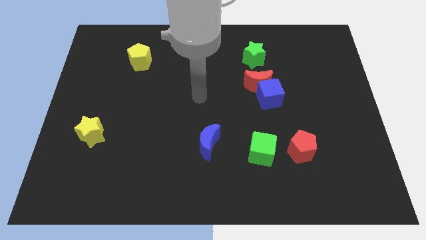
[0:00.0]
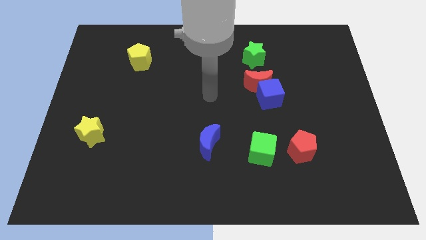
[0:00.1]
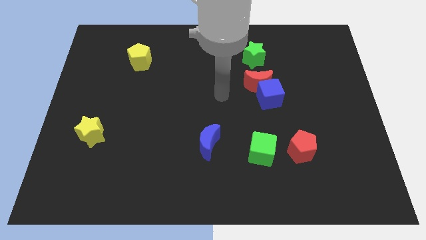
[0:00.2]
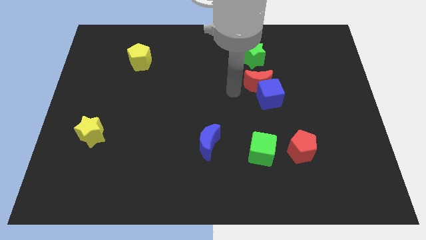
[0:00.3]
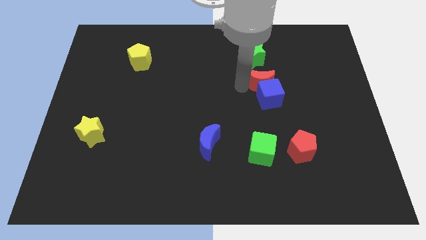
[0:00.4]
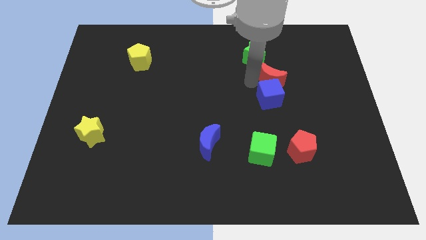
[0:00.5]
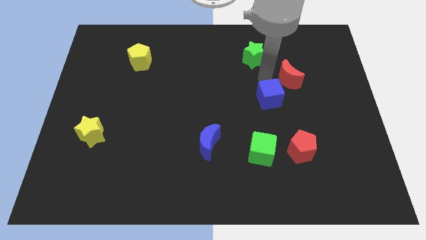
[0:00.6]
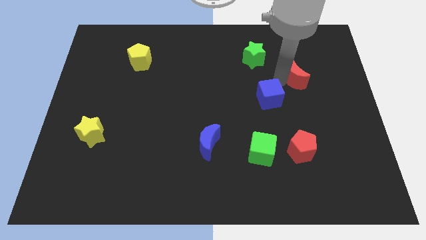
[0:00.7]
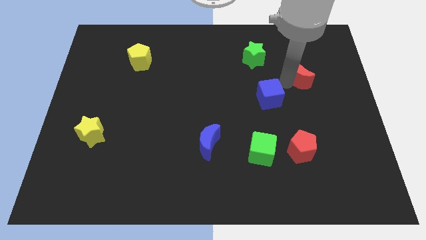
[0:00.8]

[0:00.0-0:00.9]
move the blue cube away from the red moon

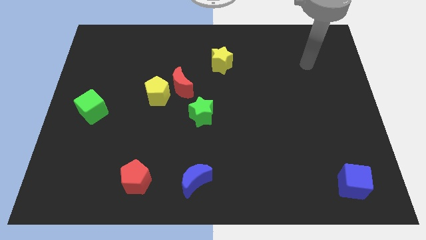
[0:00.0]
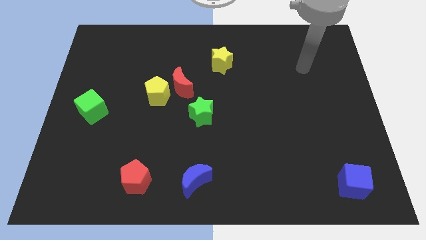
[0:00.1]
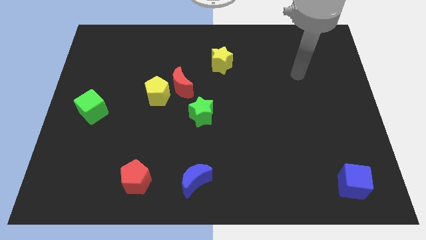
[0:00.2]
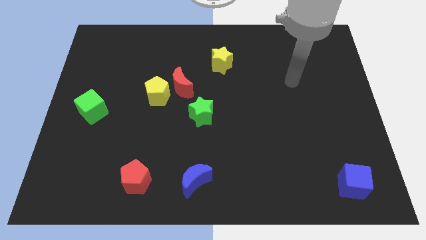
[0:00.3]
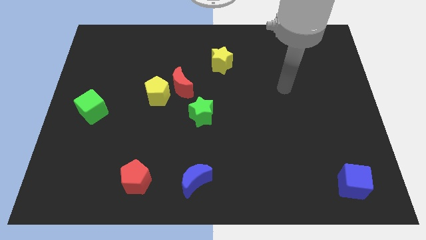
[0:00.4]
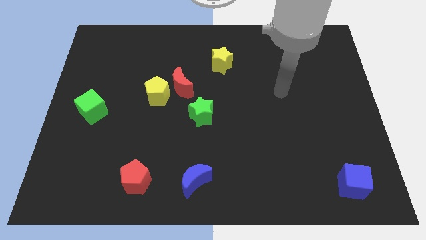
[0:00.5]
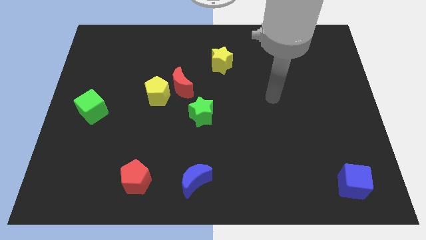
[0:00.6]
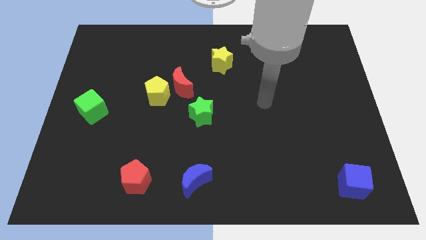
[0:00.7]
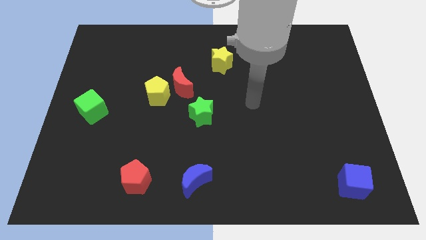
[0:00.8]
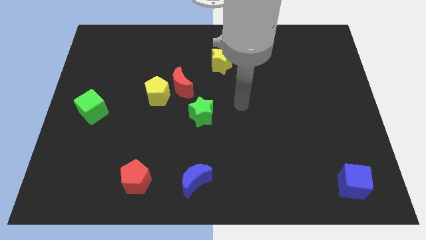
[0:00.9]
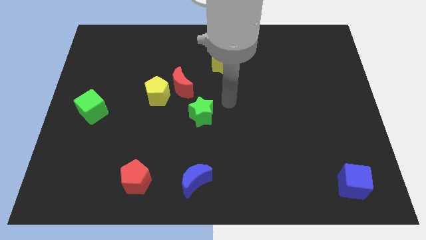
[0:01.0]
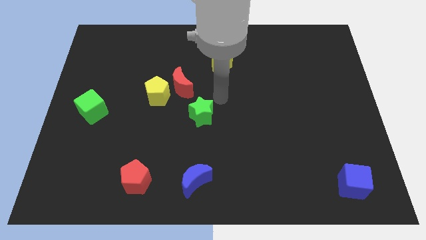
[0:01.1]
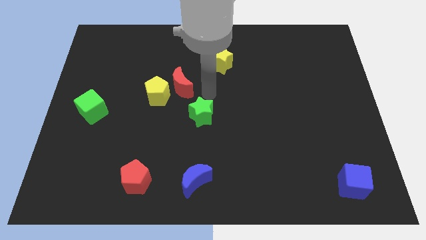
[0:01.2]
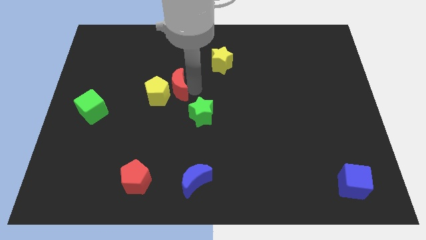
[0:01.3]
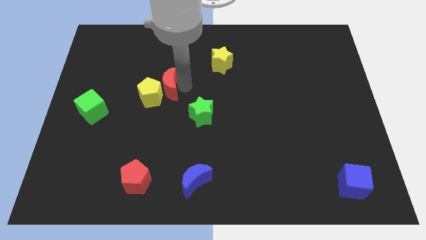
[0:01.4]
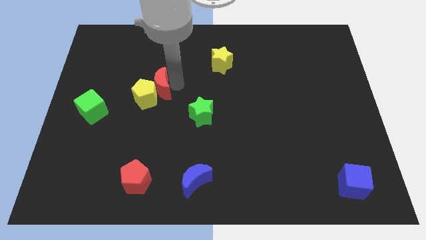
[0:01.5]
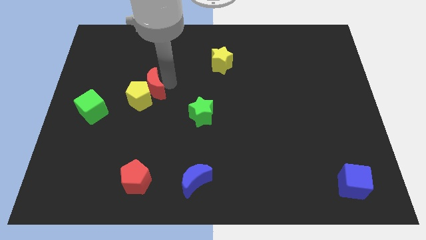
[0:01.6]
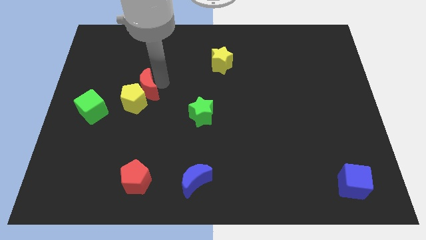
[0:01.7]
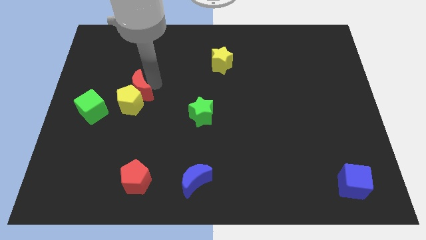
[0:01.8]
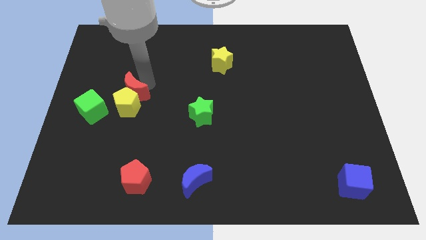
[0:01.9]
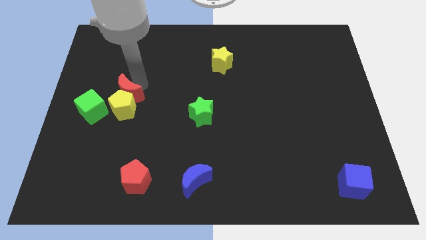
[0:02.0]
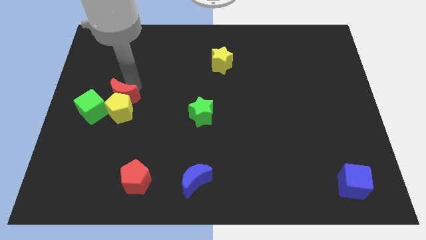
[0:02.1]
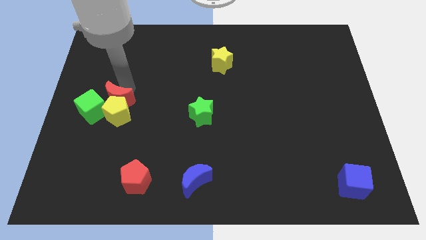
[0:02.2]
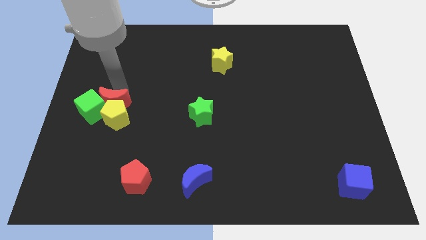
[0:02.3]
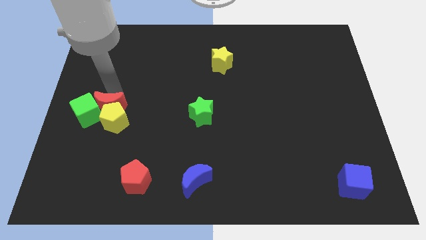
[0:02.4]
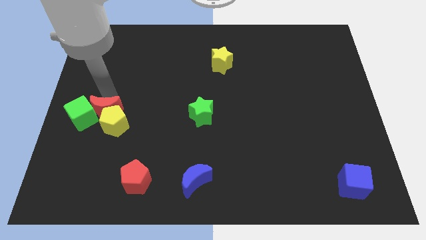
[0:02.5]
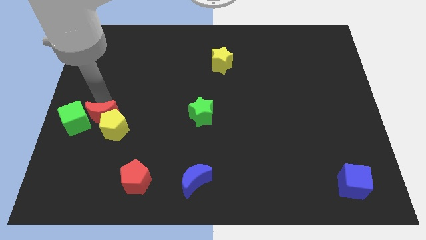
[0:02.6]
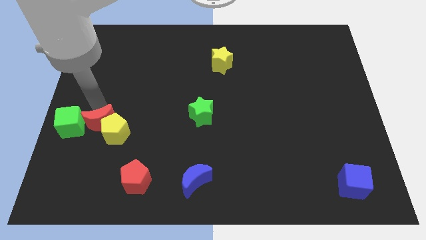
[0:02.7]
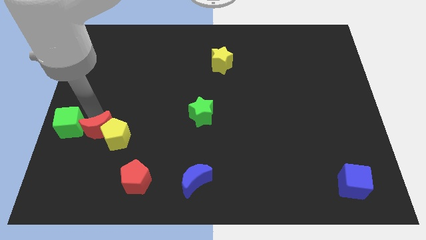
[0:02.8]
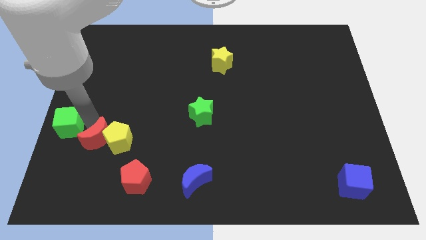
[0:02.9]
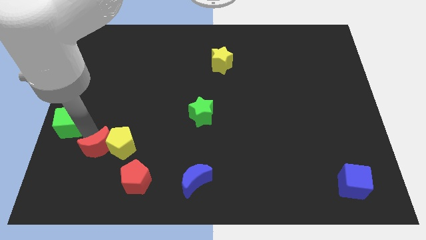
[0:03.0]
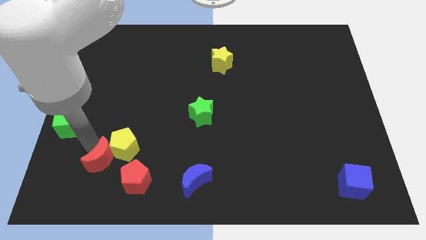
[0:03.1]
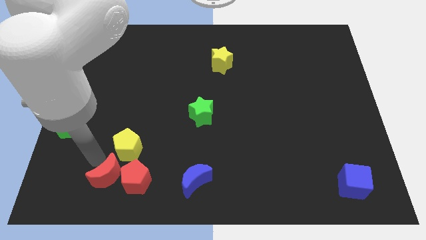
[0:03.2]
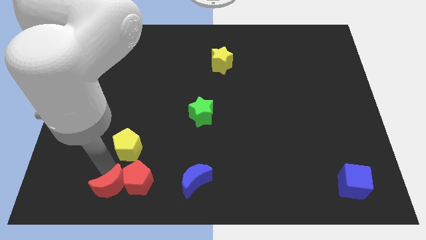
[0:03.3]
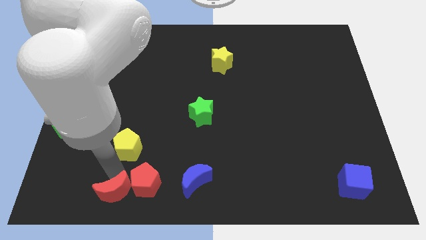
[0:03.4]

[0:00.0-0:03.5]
move the yellow pentagon away from the red moon

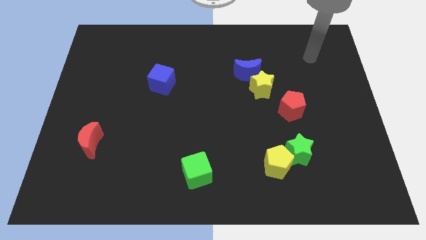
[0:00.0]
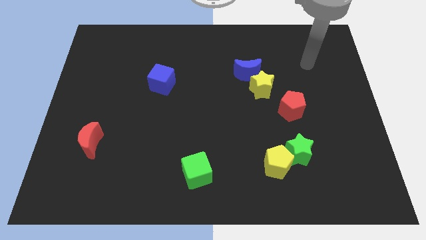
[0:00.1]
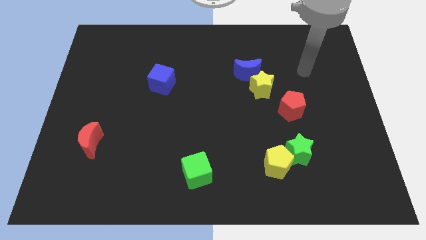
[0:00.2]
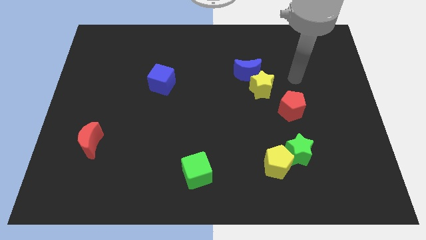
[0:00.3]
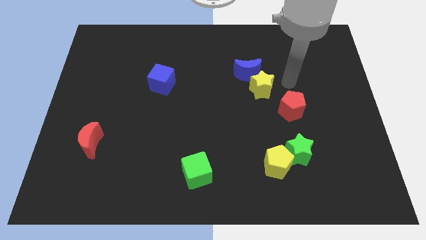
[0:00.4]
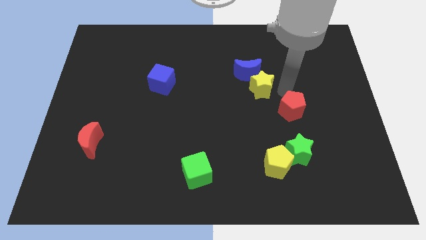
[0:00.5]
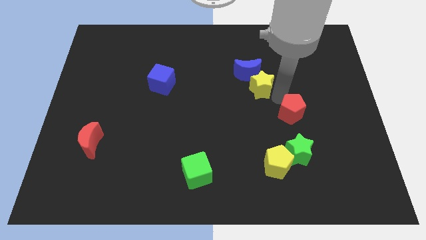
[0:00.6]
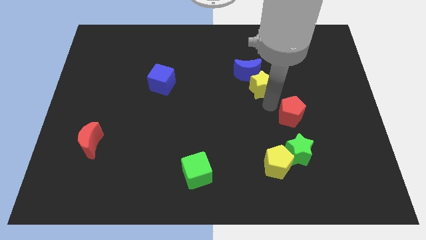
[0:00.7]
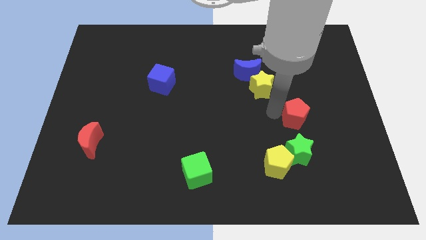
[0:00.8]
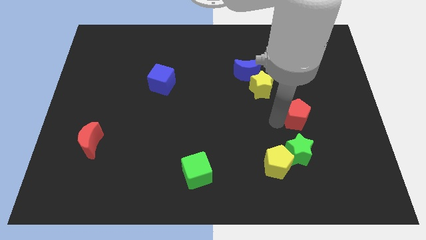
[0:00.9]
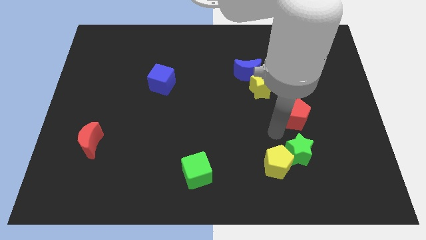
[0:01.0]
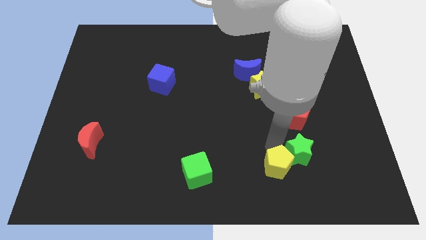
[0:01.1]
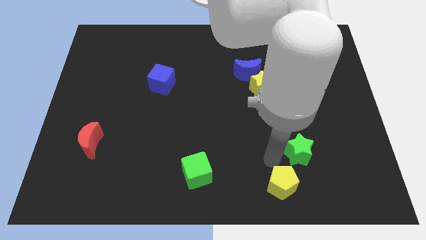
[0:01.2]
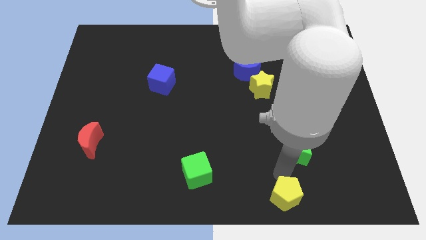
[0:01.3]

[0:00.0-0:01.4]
separate the green star from the yellow pentagon

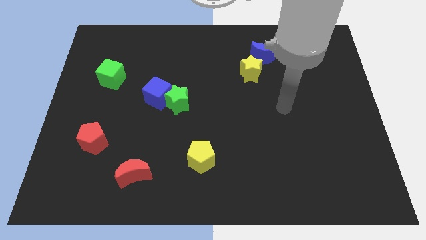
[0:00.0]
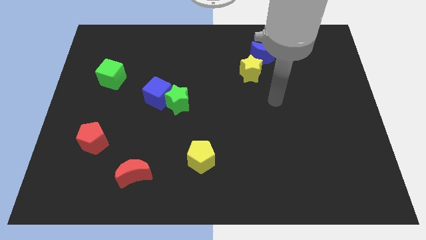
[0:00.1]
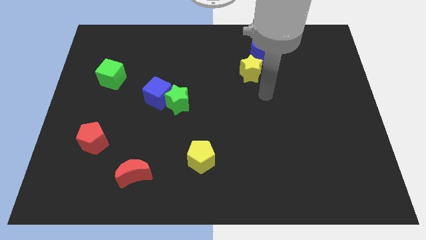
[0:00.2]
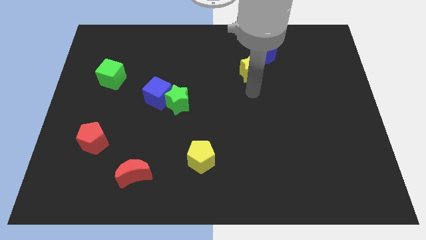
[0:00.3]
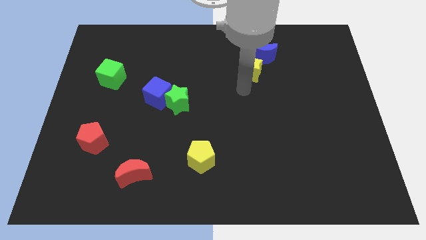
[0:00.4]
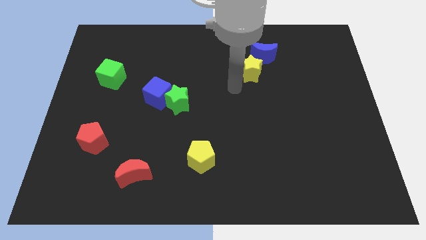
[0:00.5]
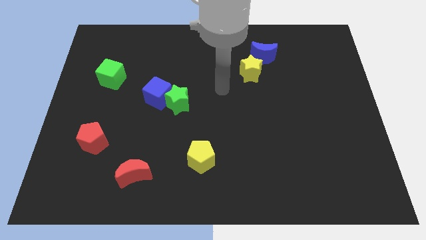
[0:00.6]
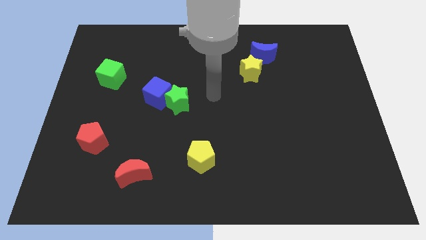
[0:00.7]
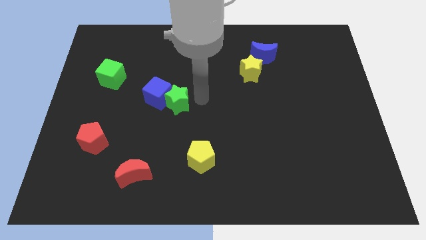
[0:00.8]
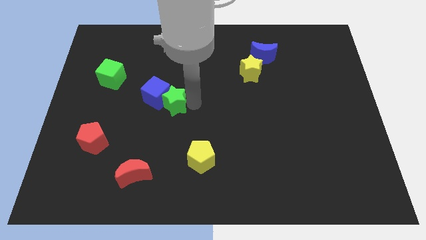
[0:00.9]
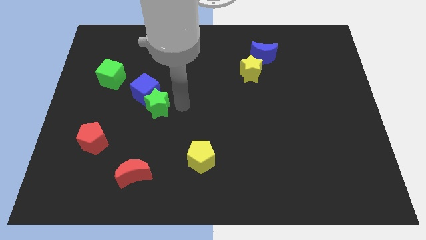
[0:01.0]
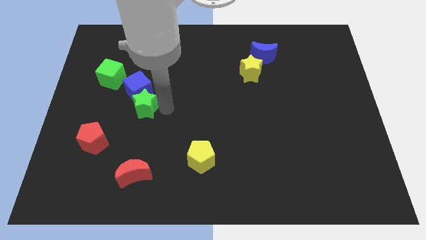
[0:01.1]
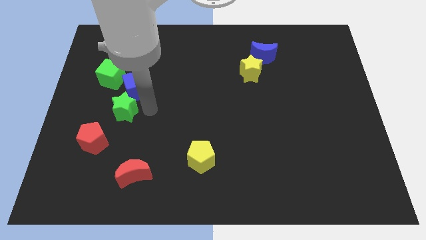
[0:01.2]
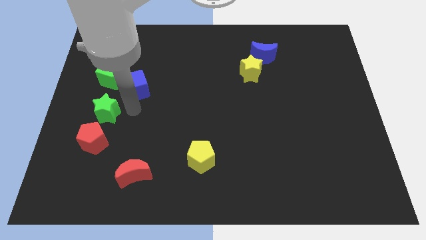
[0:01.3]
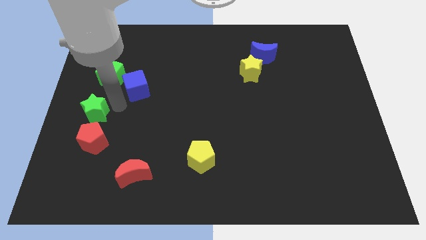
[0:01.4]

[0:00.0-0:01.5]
separate the blue cube from the green star

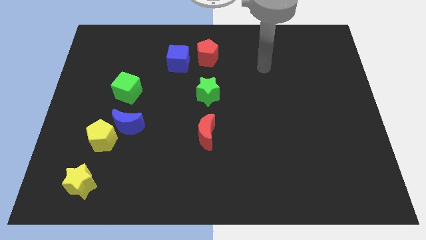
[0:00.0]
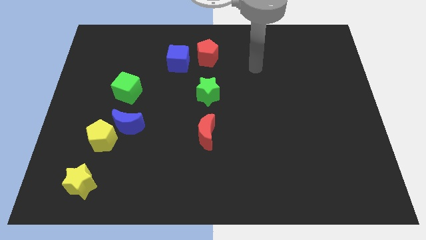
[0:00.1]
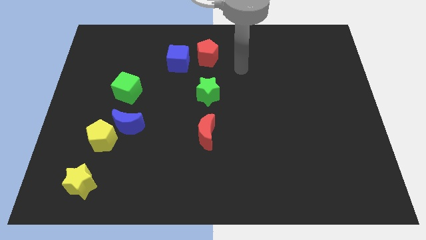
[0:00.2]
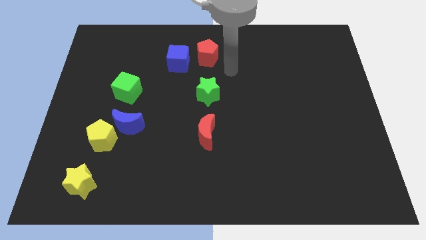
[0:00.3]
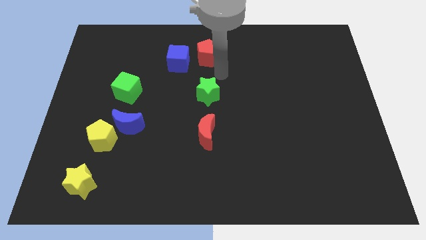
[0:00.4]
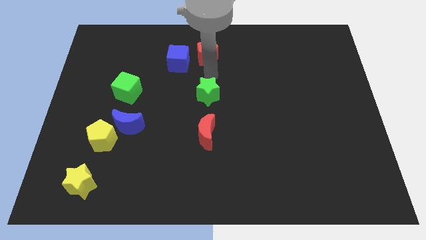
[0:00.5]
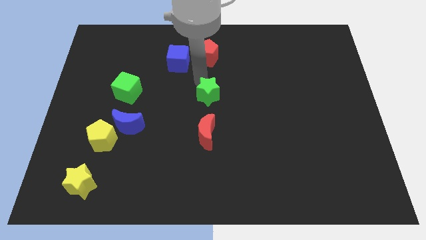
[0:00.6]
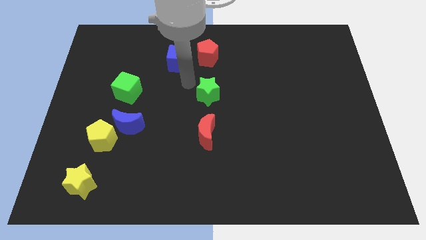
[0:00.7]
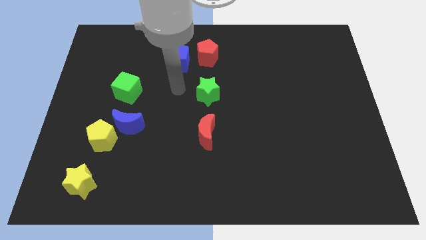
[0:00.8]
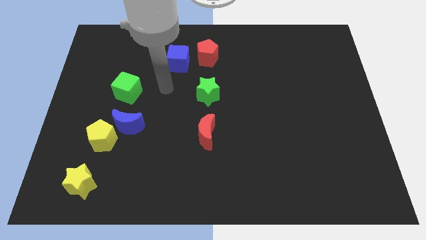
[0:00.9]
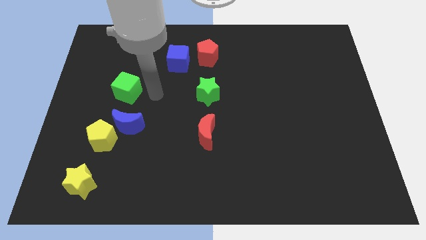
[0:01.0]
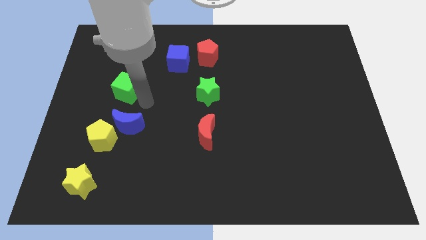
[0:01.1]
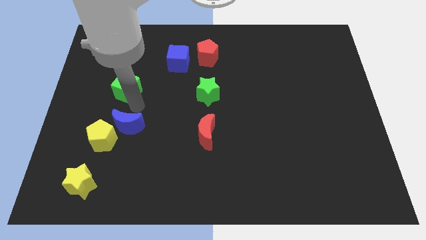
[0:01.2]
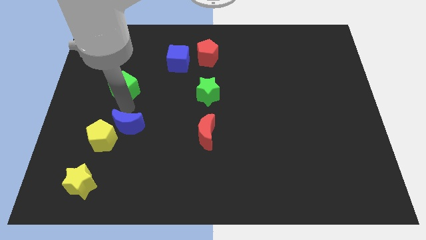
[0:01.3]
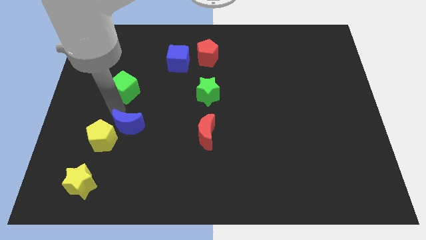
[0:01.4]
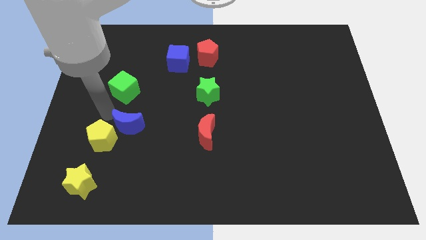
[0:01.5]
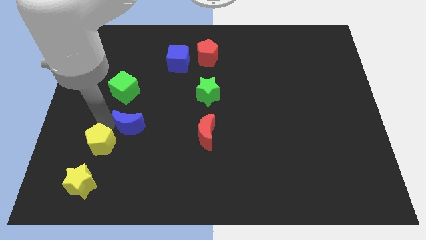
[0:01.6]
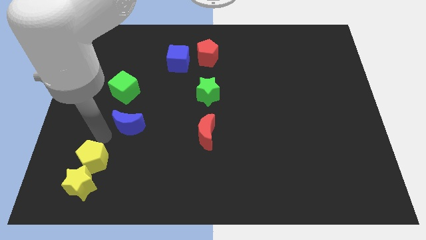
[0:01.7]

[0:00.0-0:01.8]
move the blue moon away from the yellow pentagon

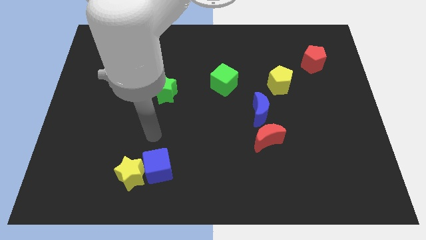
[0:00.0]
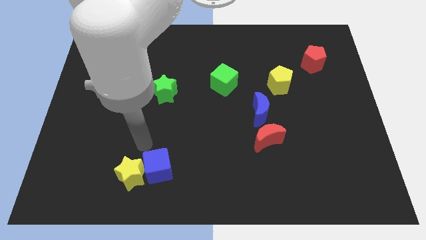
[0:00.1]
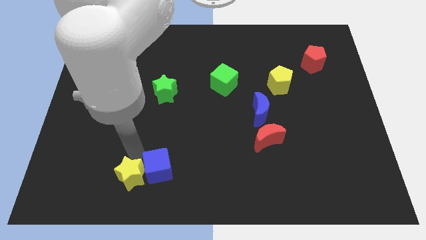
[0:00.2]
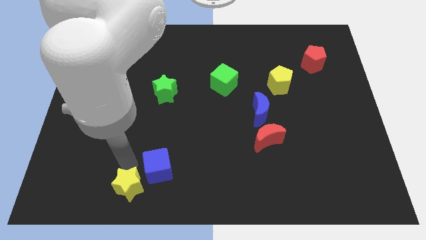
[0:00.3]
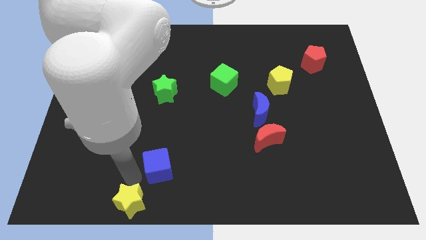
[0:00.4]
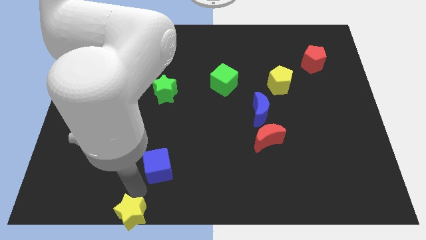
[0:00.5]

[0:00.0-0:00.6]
pull the blue cube apart from the yellow star
